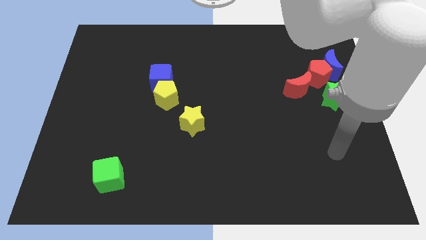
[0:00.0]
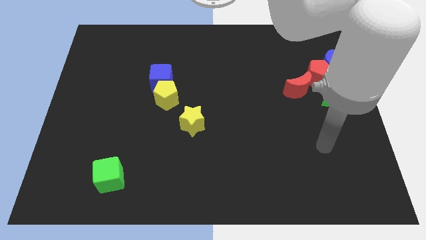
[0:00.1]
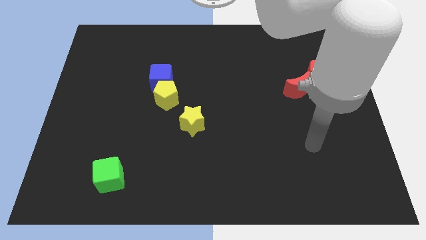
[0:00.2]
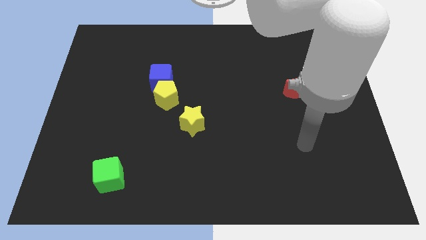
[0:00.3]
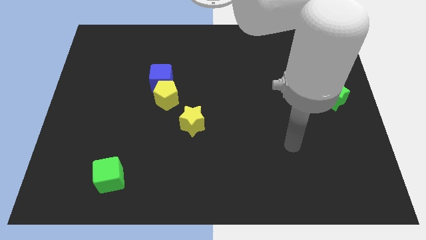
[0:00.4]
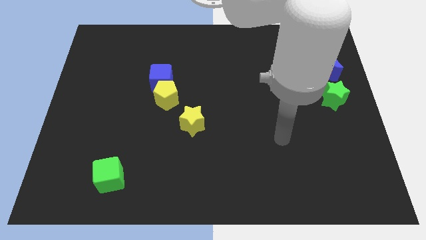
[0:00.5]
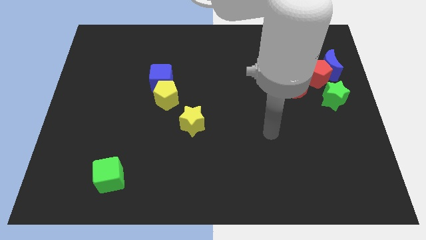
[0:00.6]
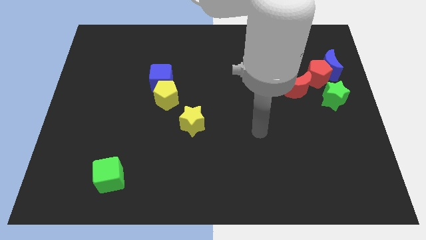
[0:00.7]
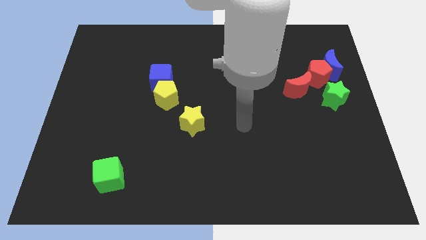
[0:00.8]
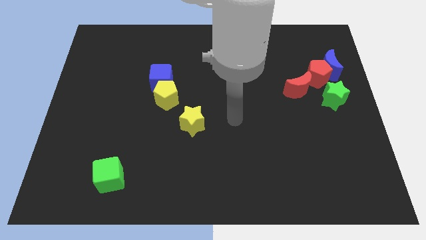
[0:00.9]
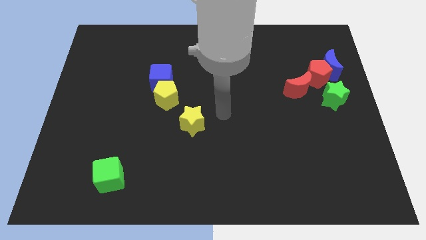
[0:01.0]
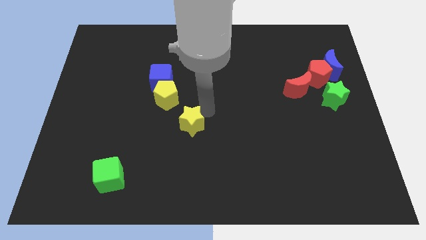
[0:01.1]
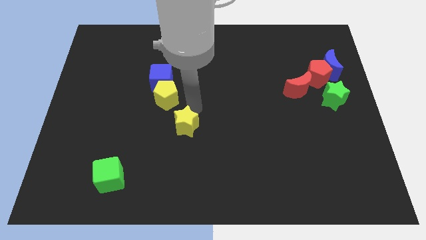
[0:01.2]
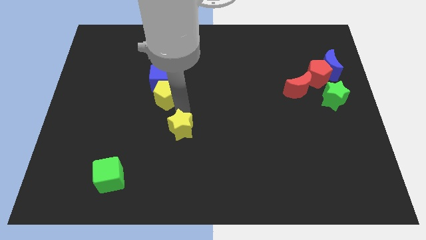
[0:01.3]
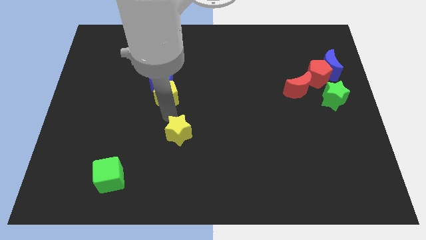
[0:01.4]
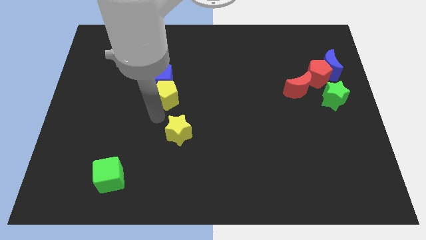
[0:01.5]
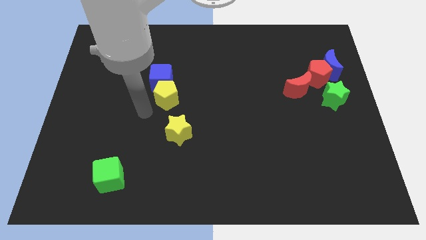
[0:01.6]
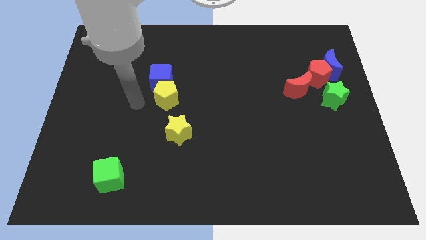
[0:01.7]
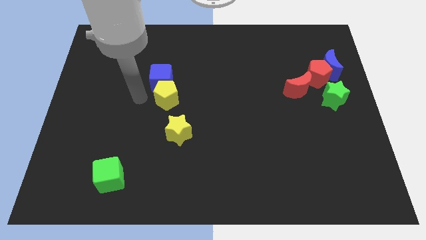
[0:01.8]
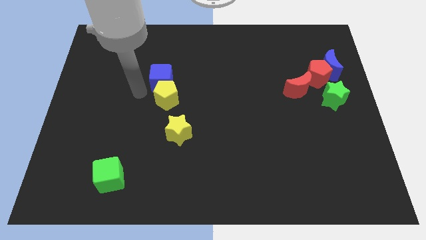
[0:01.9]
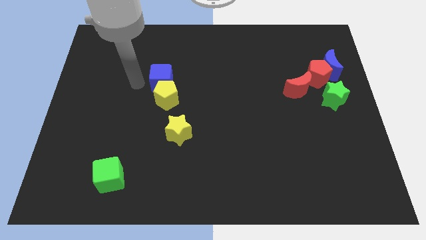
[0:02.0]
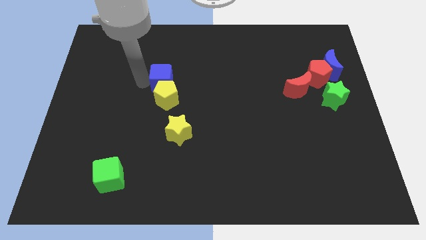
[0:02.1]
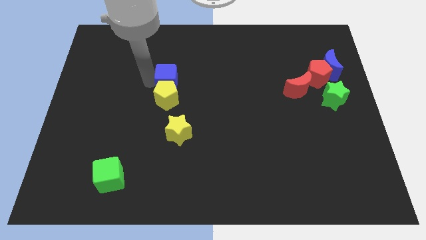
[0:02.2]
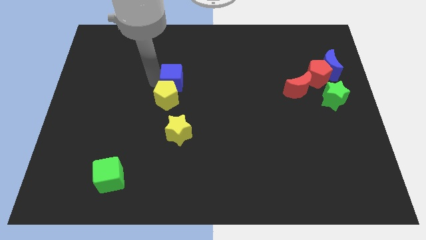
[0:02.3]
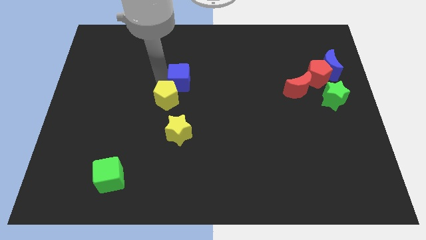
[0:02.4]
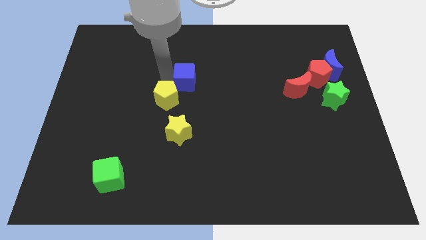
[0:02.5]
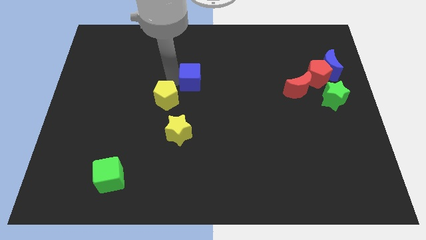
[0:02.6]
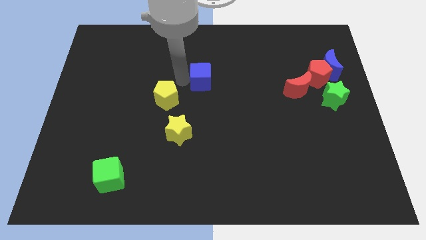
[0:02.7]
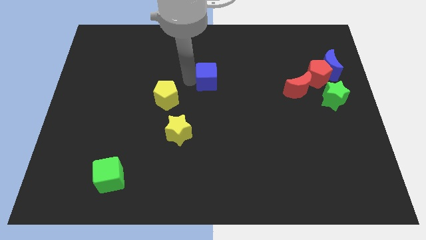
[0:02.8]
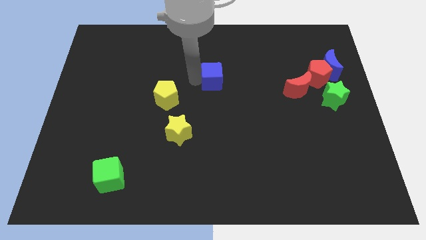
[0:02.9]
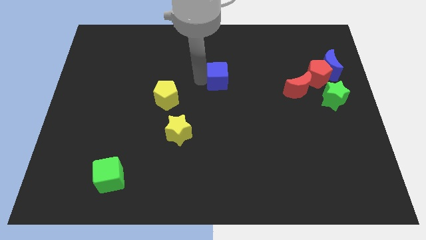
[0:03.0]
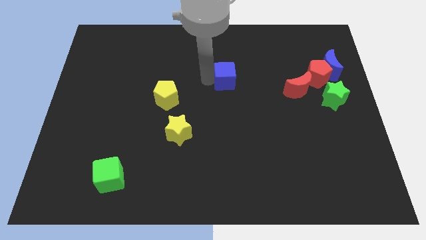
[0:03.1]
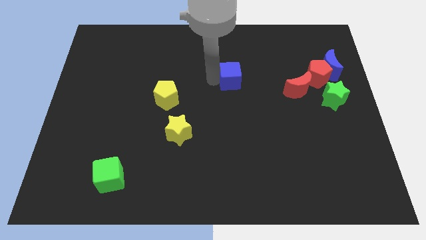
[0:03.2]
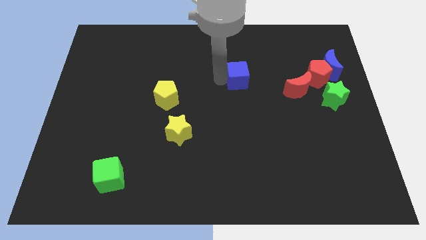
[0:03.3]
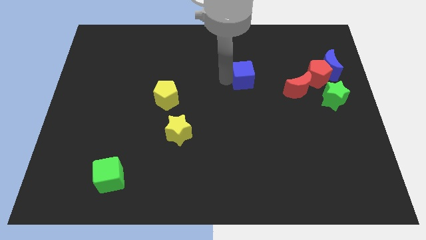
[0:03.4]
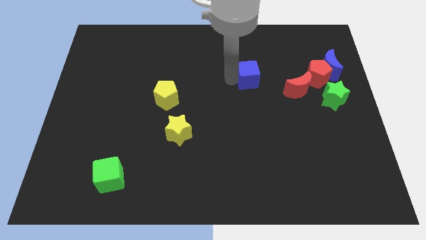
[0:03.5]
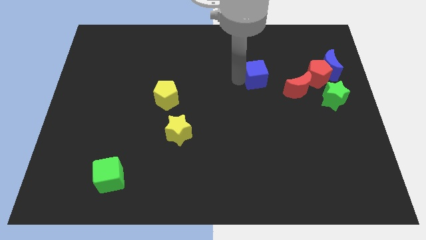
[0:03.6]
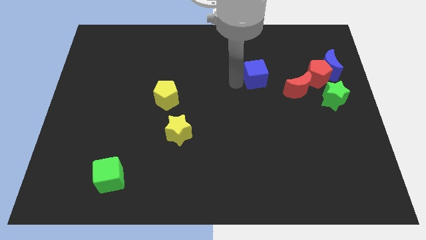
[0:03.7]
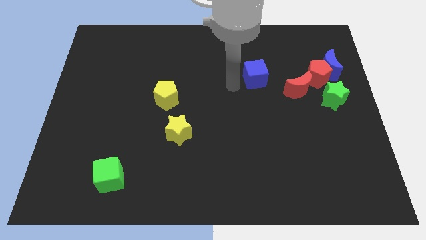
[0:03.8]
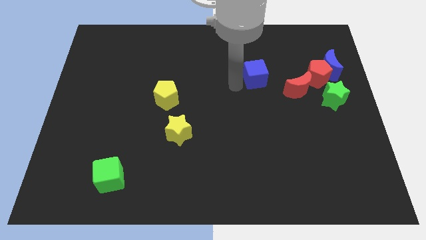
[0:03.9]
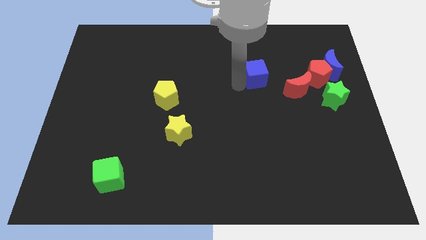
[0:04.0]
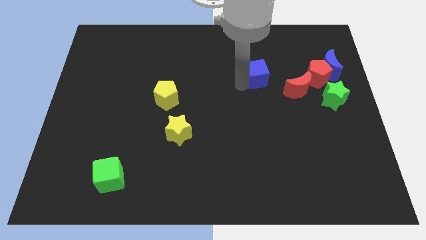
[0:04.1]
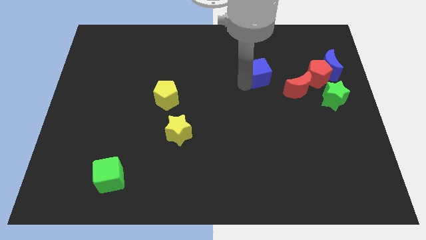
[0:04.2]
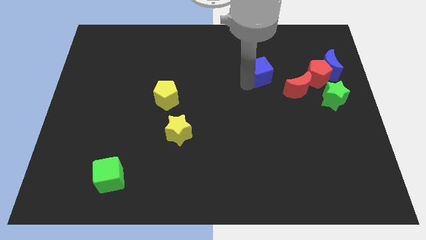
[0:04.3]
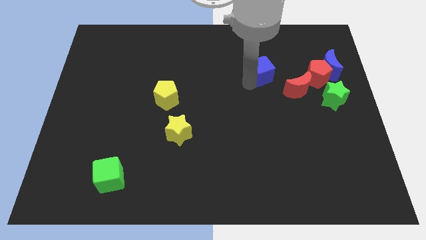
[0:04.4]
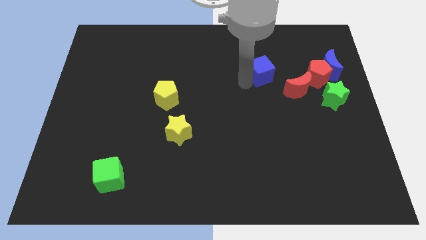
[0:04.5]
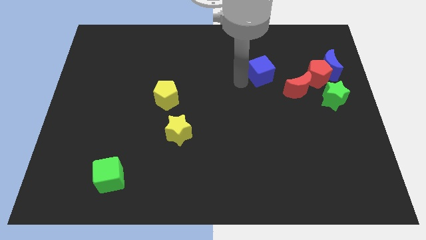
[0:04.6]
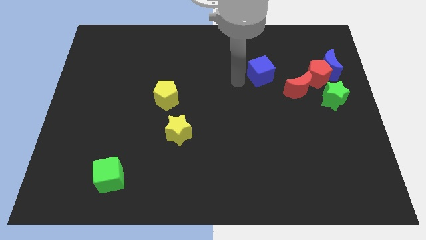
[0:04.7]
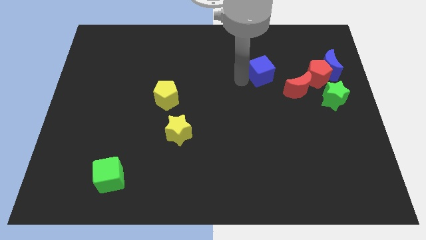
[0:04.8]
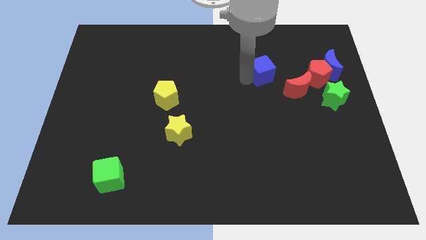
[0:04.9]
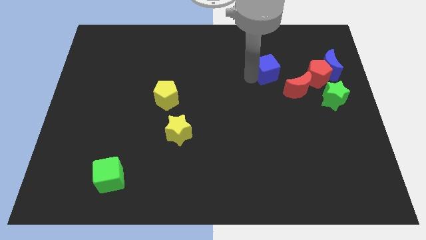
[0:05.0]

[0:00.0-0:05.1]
put the blue cube to the left side of the blue moon

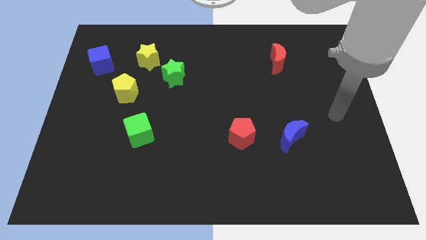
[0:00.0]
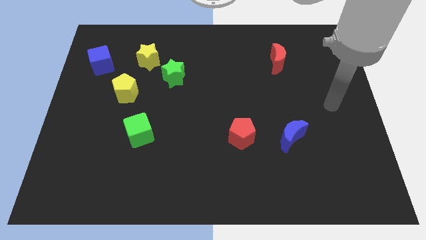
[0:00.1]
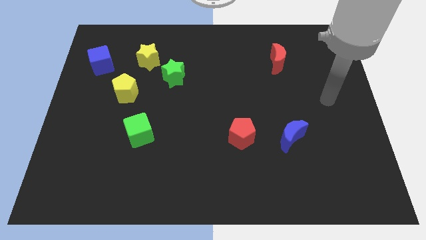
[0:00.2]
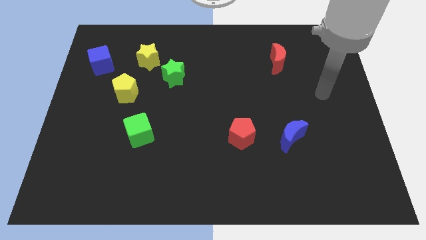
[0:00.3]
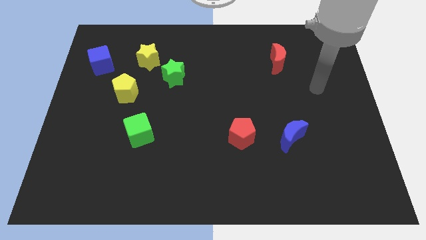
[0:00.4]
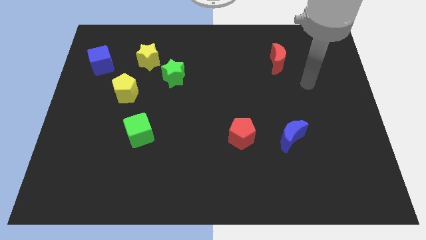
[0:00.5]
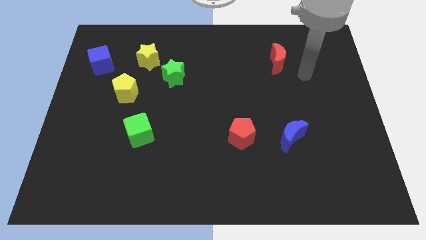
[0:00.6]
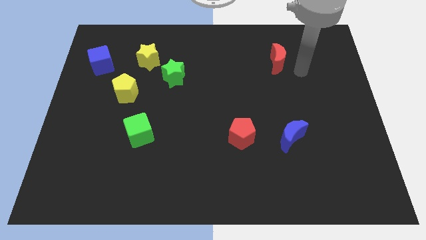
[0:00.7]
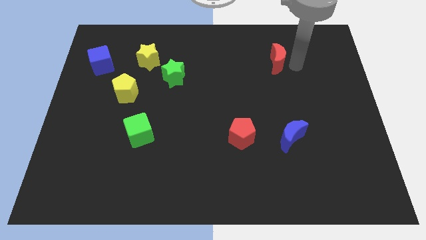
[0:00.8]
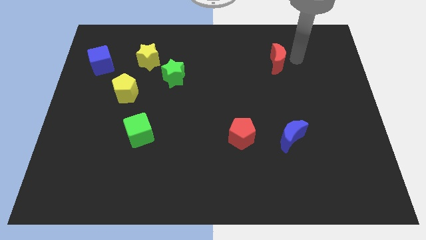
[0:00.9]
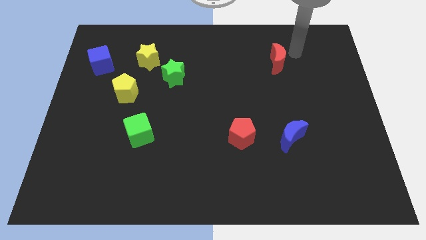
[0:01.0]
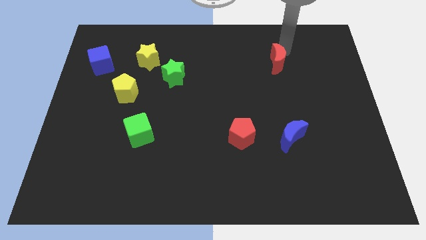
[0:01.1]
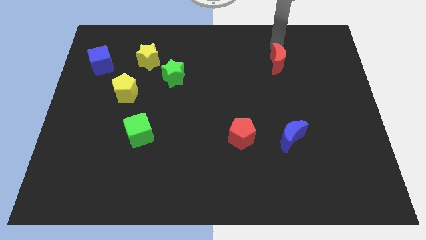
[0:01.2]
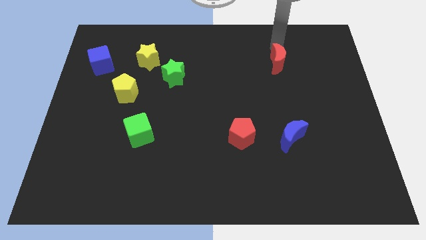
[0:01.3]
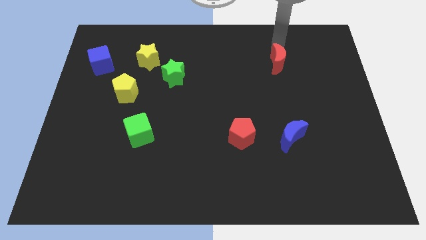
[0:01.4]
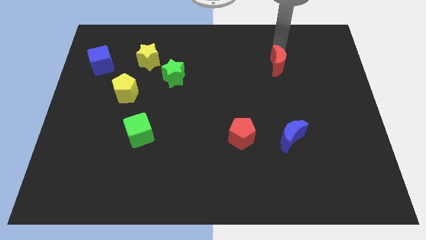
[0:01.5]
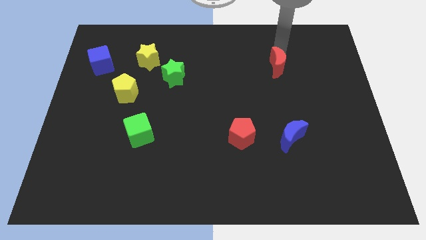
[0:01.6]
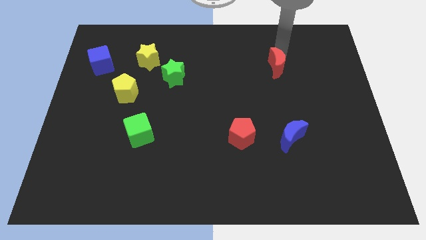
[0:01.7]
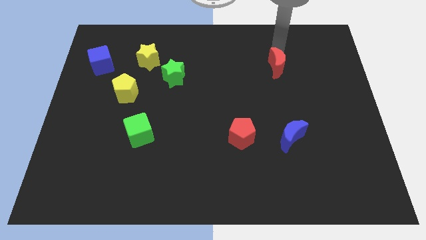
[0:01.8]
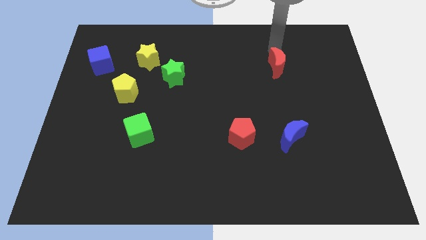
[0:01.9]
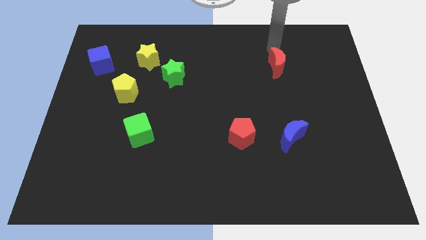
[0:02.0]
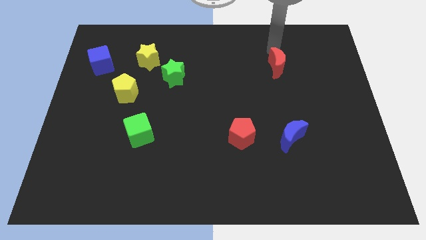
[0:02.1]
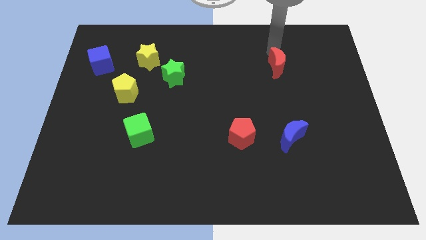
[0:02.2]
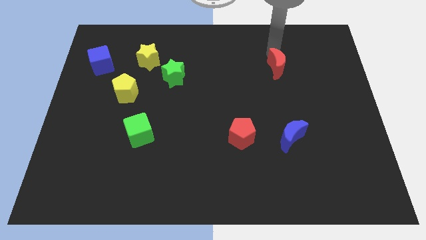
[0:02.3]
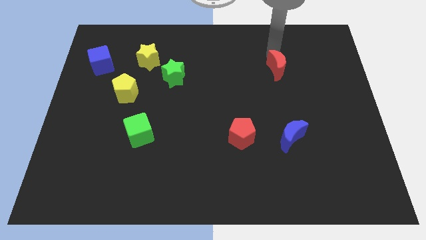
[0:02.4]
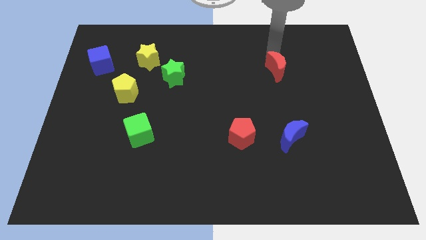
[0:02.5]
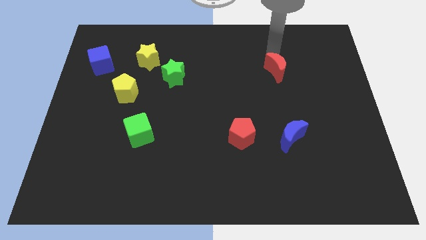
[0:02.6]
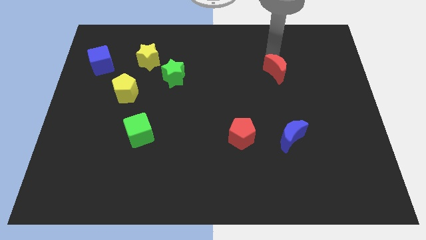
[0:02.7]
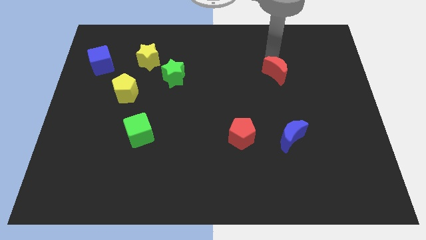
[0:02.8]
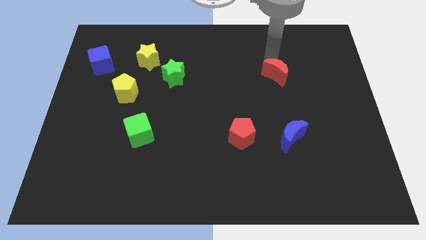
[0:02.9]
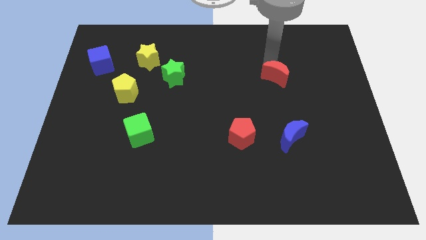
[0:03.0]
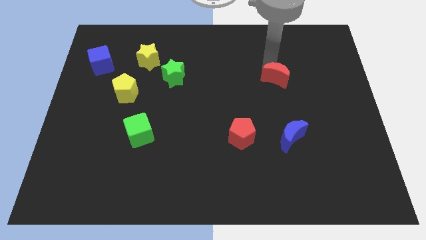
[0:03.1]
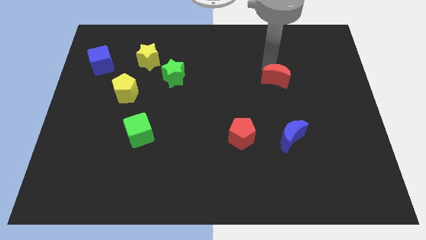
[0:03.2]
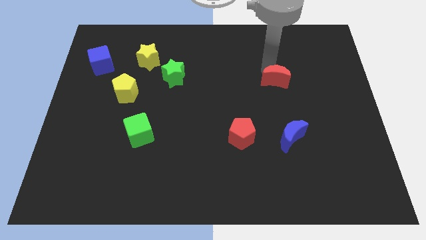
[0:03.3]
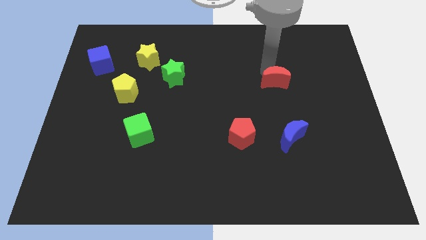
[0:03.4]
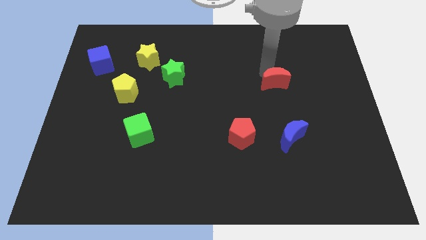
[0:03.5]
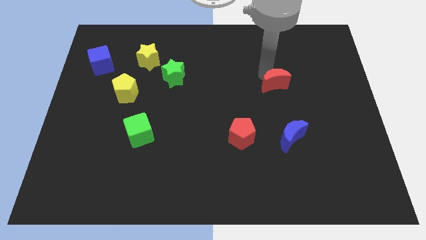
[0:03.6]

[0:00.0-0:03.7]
put the red moon to the top of the blue moon
